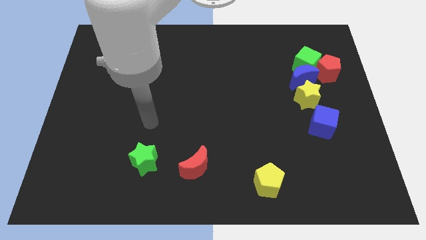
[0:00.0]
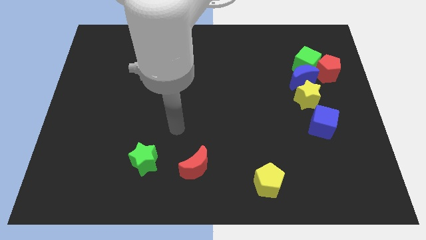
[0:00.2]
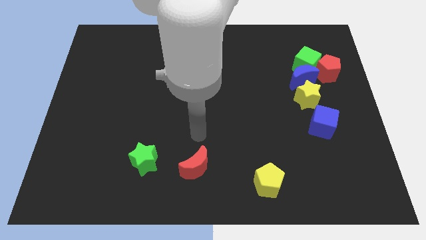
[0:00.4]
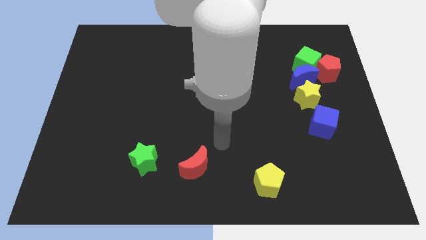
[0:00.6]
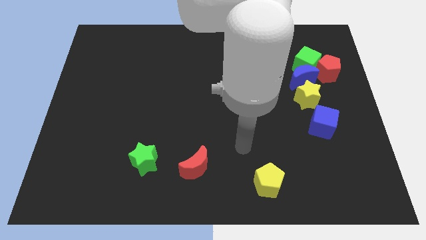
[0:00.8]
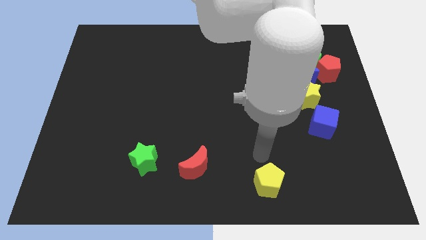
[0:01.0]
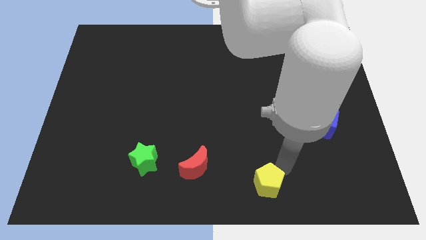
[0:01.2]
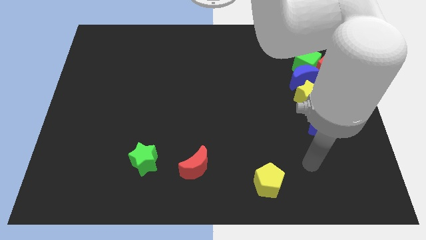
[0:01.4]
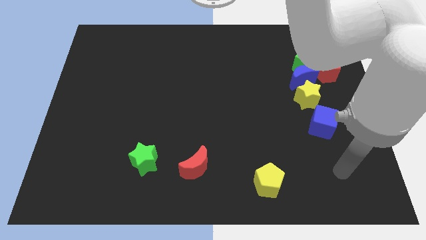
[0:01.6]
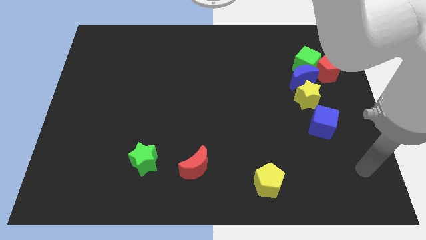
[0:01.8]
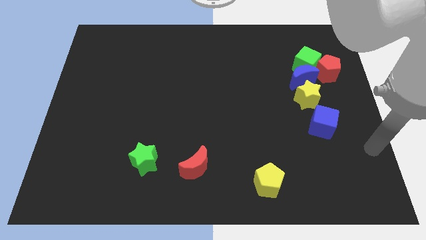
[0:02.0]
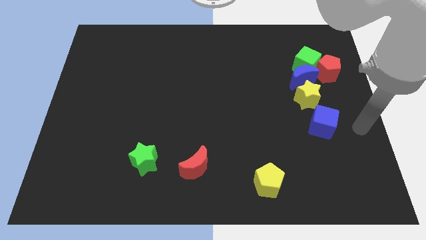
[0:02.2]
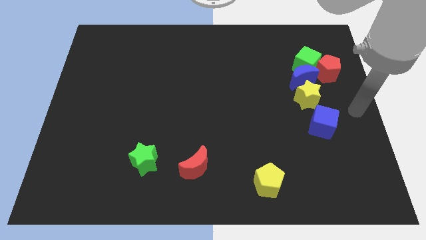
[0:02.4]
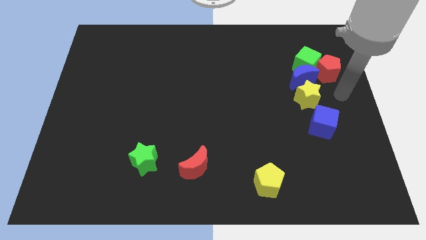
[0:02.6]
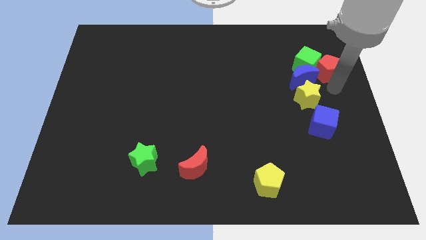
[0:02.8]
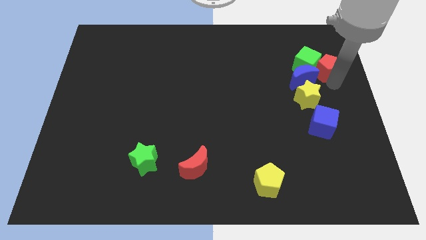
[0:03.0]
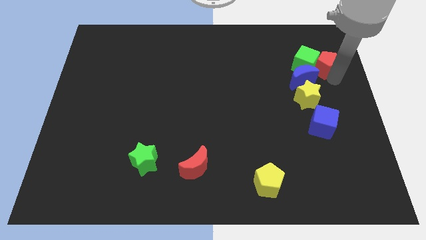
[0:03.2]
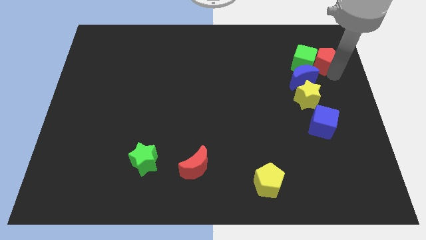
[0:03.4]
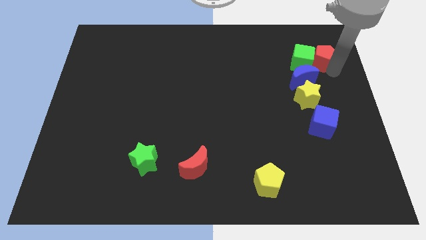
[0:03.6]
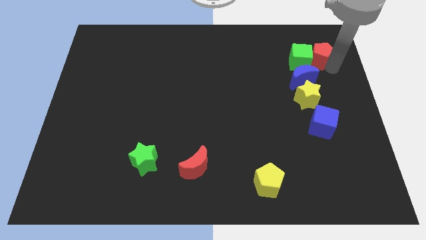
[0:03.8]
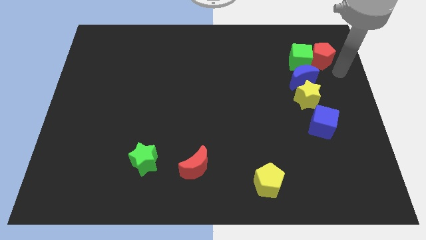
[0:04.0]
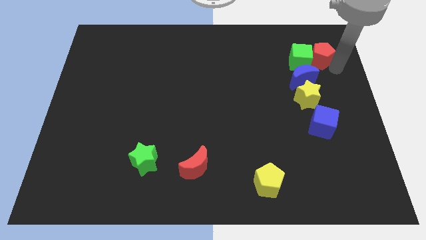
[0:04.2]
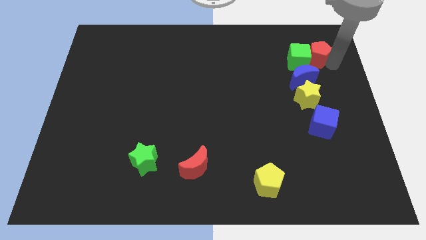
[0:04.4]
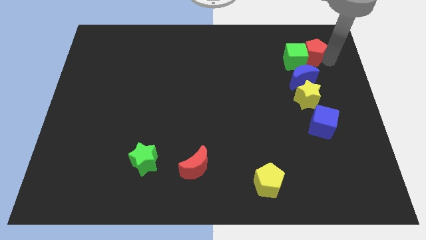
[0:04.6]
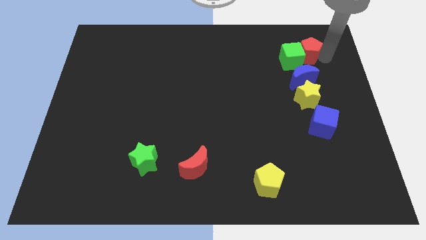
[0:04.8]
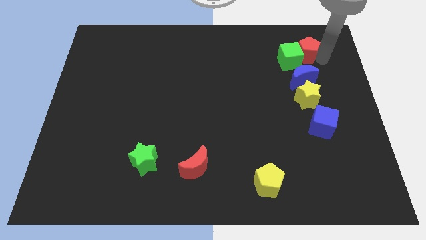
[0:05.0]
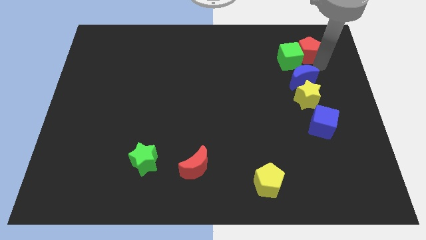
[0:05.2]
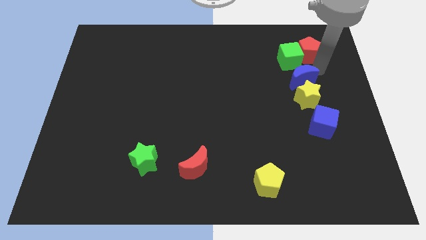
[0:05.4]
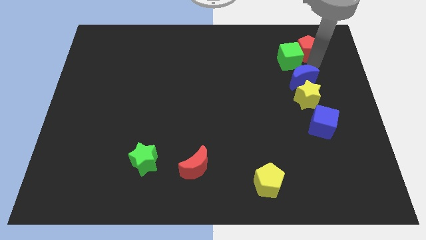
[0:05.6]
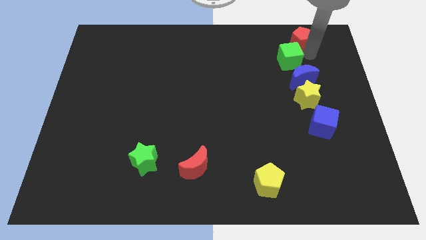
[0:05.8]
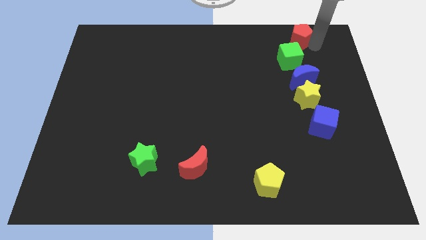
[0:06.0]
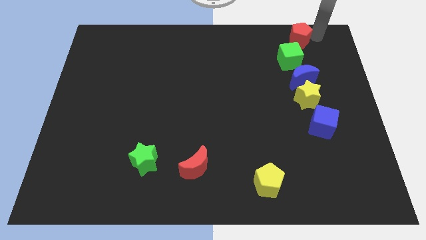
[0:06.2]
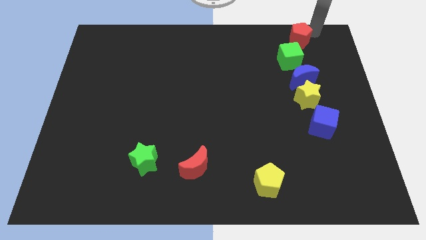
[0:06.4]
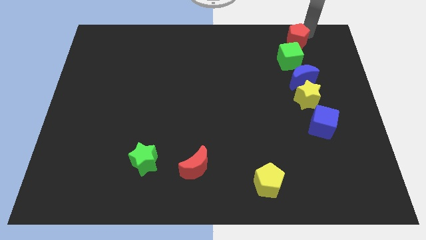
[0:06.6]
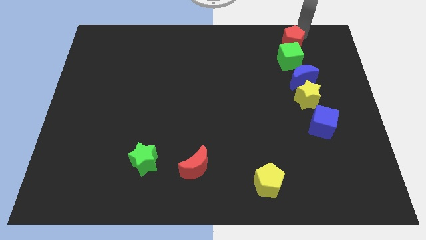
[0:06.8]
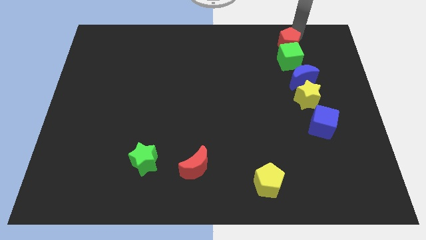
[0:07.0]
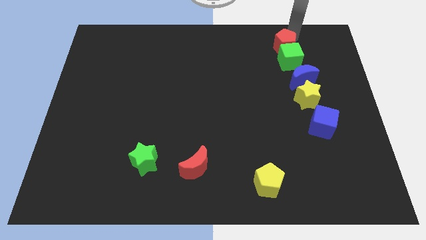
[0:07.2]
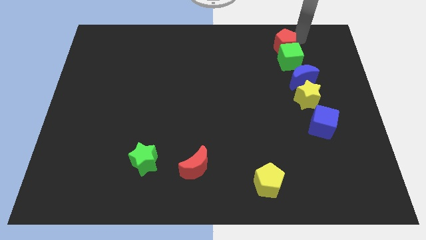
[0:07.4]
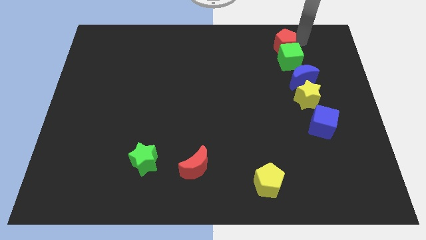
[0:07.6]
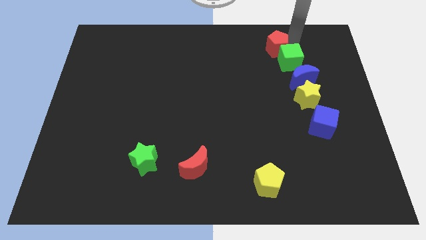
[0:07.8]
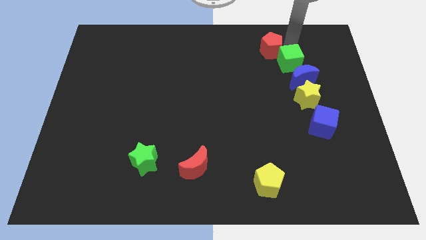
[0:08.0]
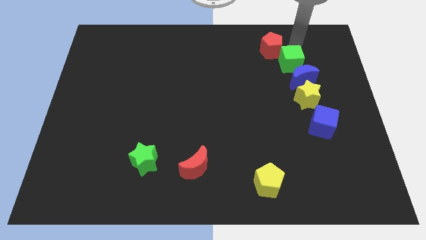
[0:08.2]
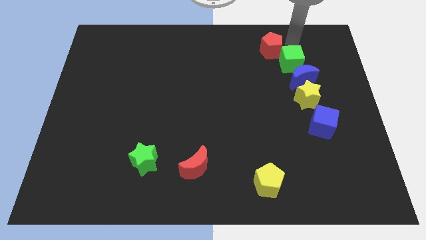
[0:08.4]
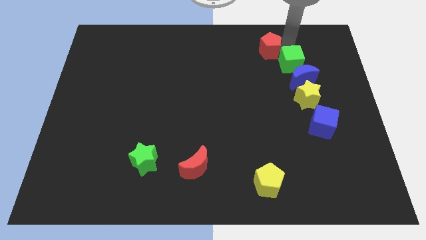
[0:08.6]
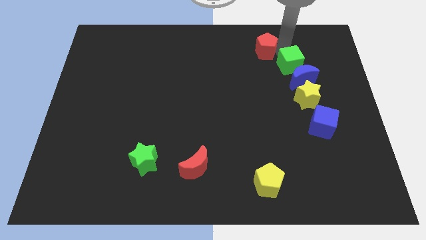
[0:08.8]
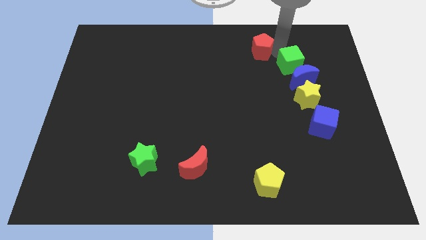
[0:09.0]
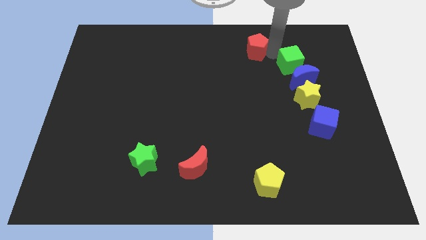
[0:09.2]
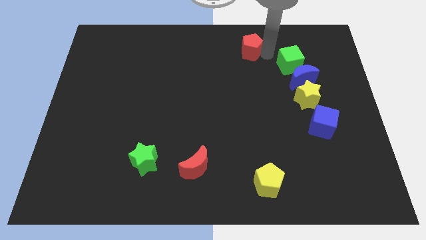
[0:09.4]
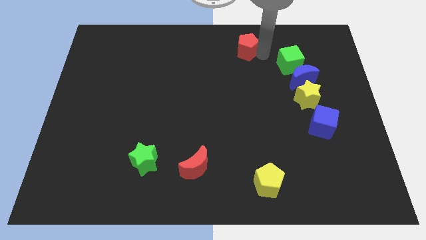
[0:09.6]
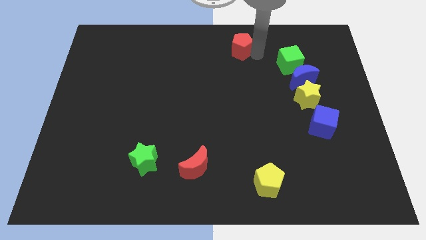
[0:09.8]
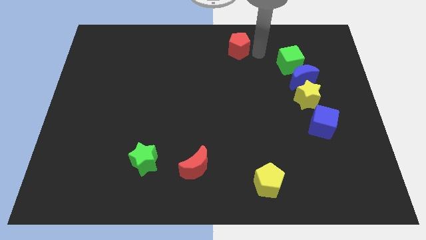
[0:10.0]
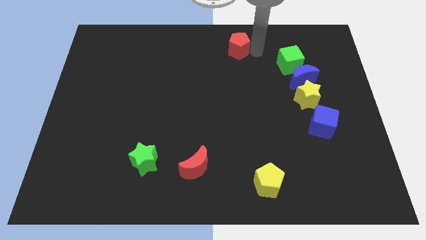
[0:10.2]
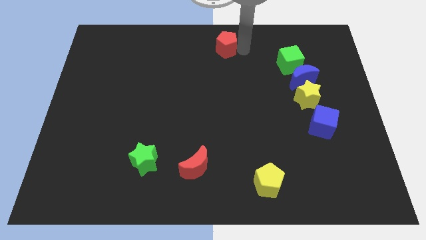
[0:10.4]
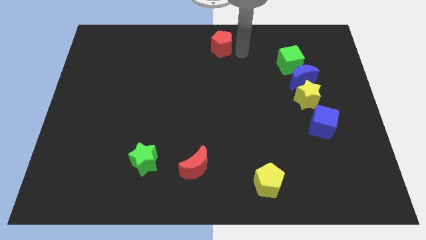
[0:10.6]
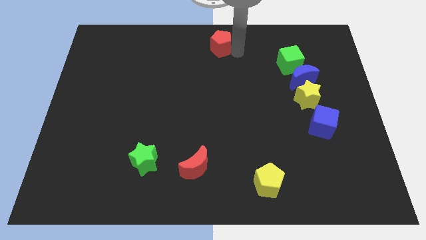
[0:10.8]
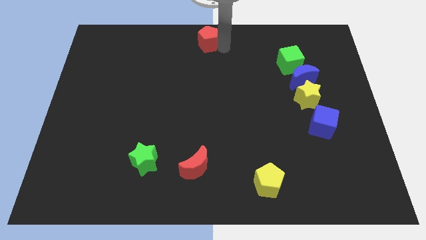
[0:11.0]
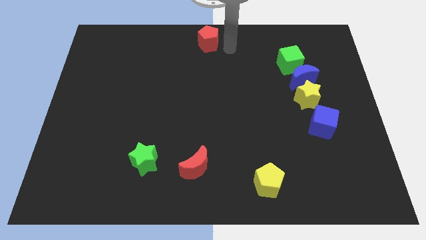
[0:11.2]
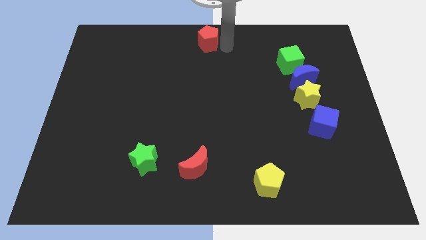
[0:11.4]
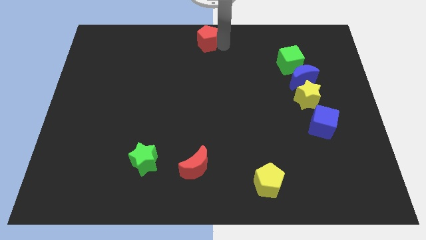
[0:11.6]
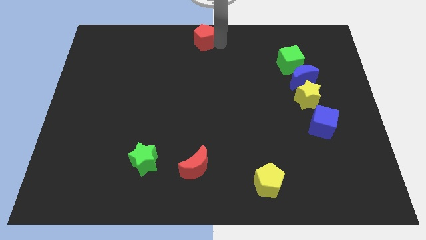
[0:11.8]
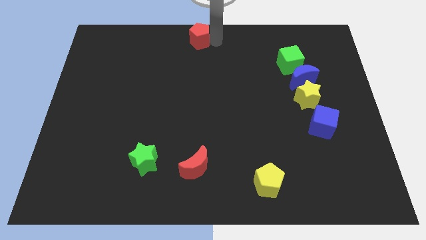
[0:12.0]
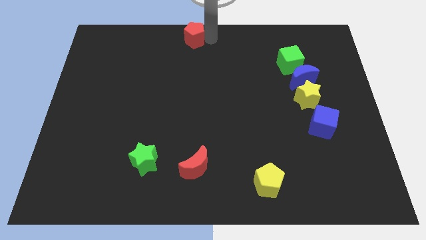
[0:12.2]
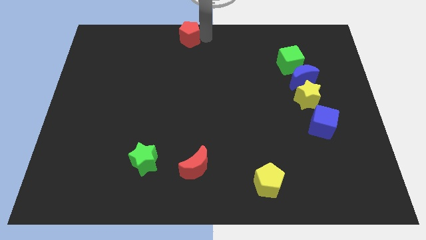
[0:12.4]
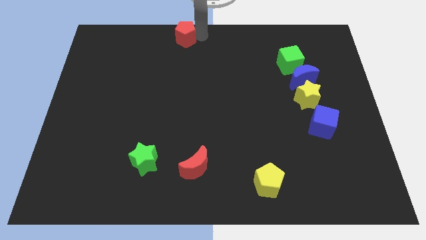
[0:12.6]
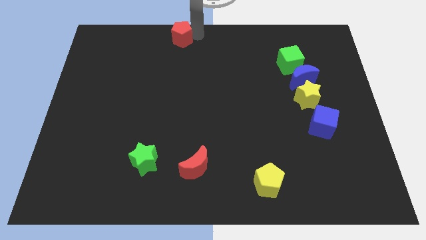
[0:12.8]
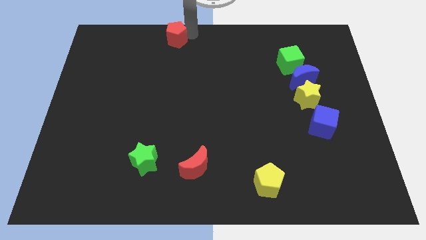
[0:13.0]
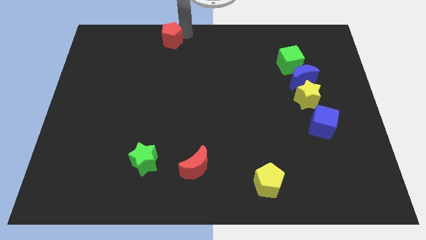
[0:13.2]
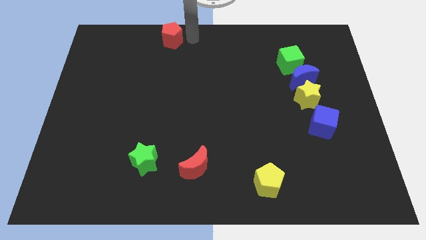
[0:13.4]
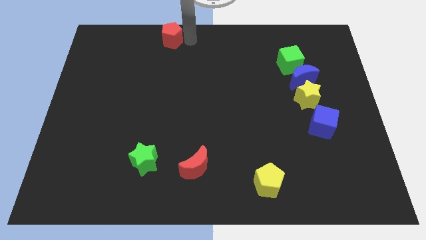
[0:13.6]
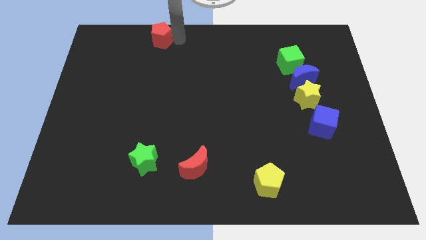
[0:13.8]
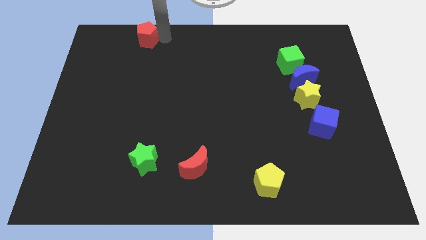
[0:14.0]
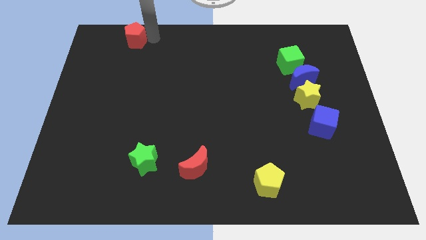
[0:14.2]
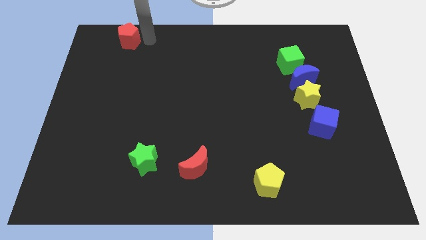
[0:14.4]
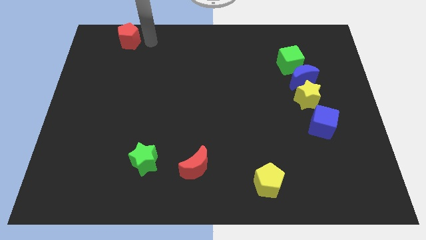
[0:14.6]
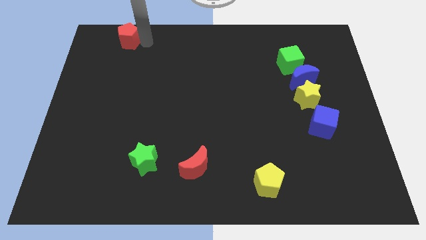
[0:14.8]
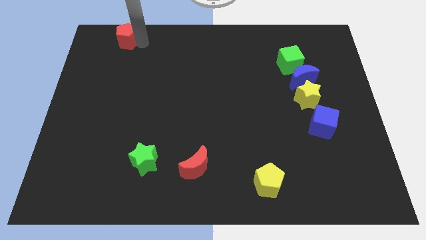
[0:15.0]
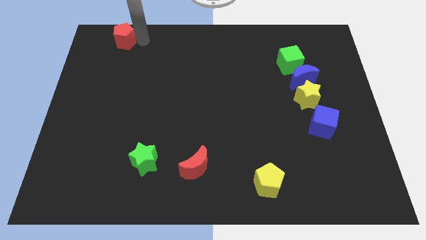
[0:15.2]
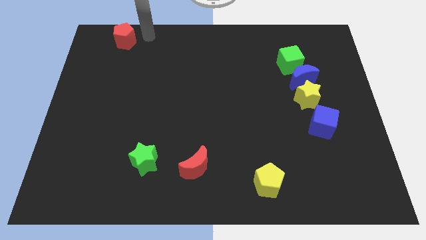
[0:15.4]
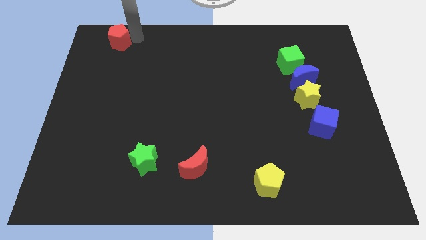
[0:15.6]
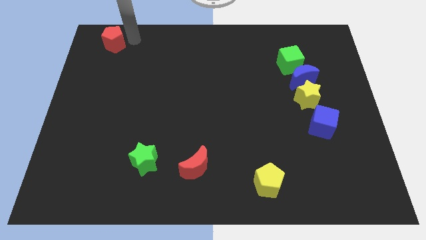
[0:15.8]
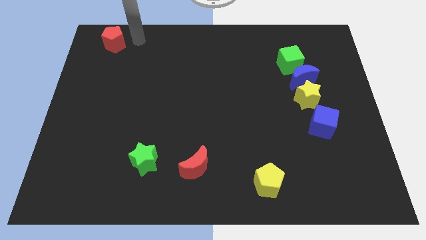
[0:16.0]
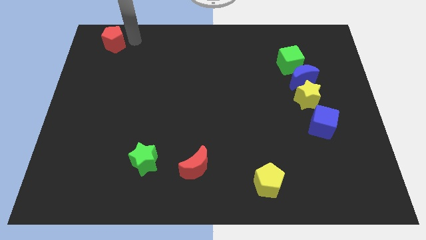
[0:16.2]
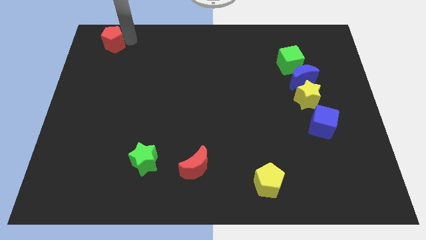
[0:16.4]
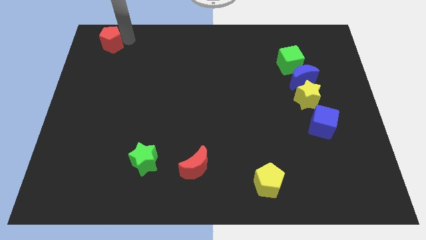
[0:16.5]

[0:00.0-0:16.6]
push the red pentagon to the upper left corner
